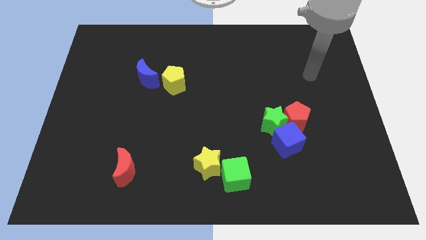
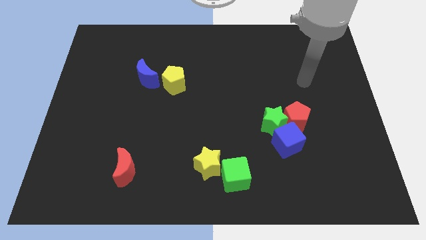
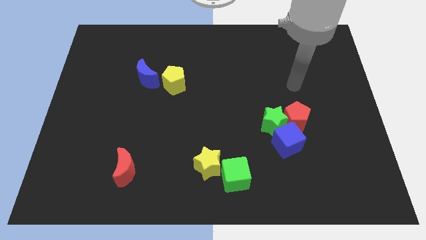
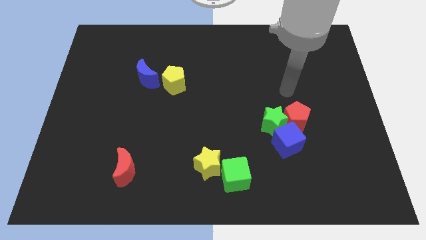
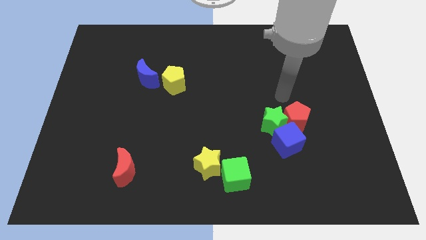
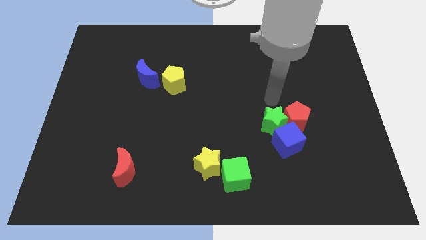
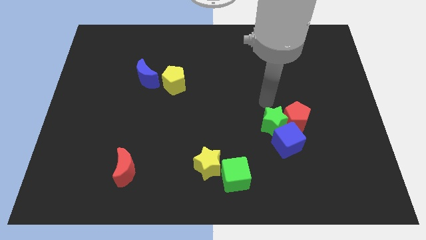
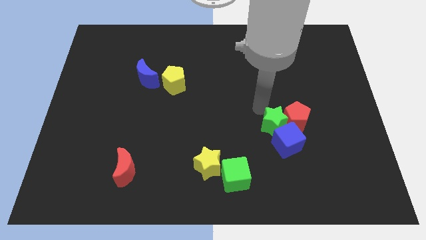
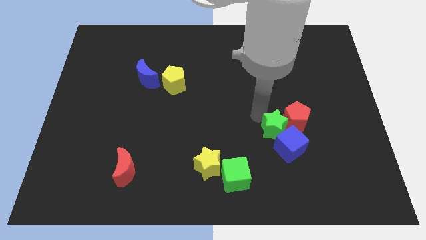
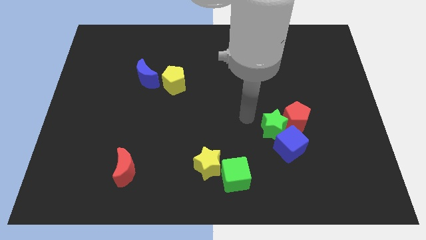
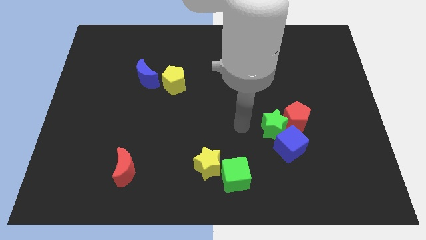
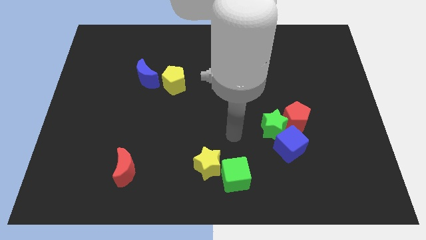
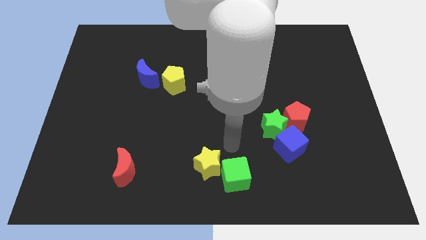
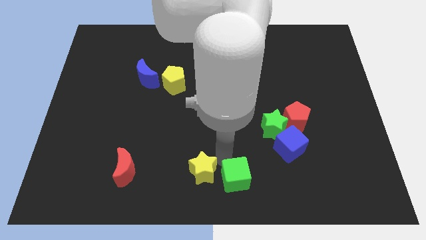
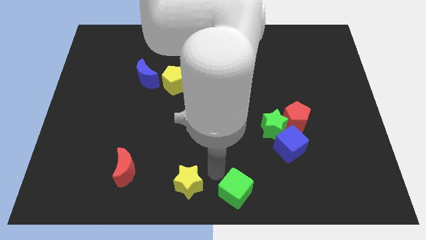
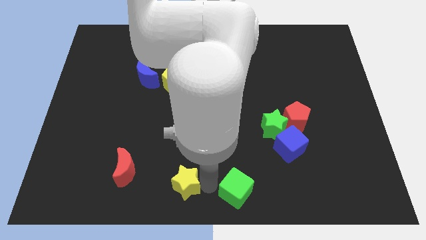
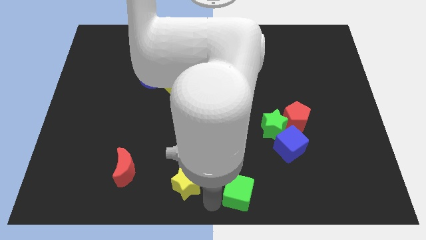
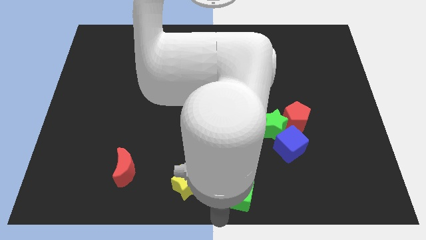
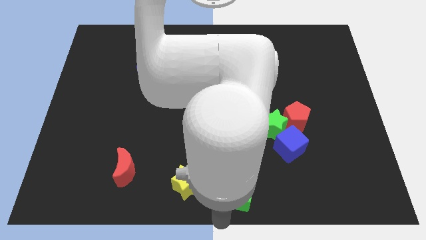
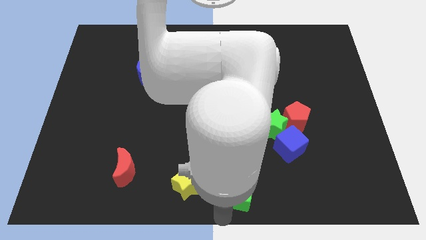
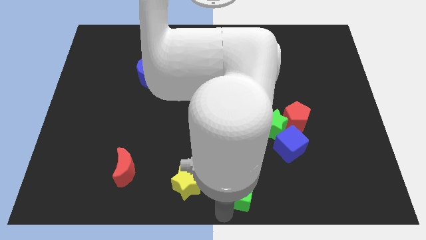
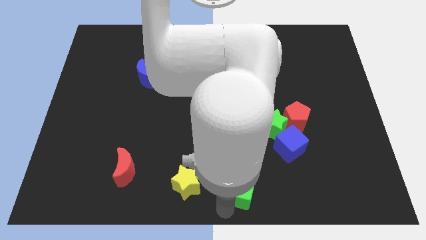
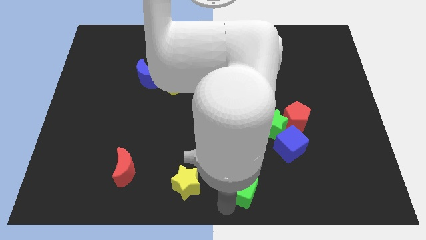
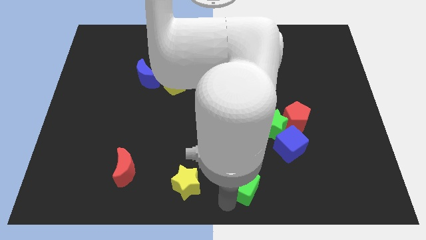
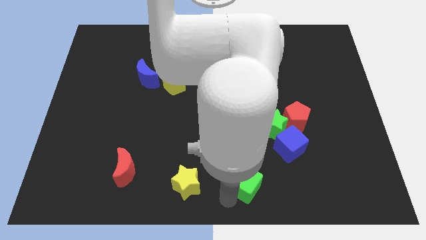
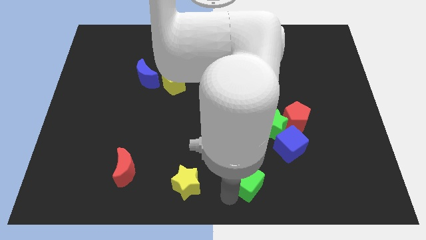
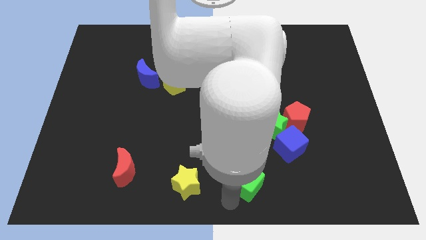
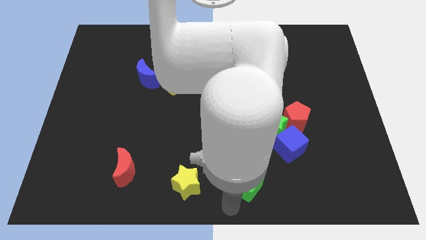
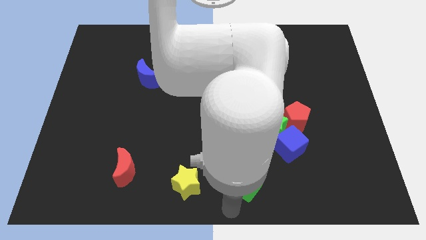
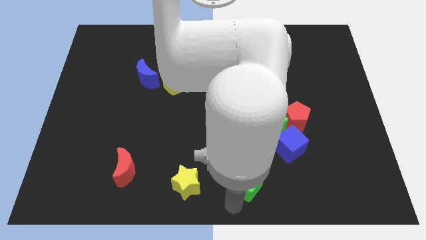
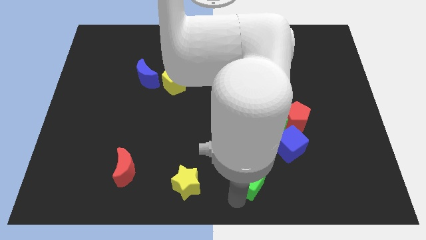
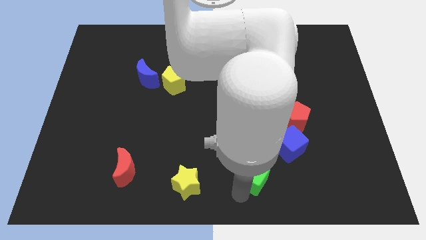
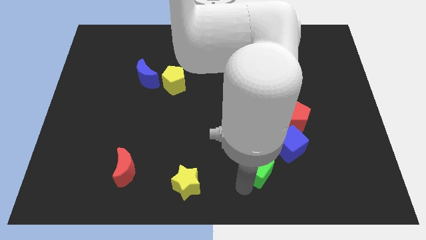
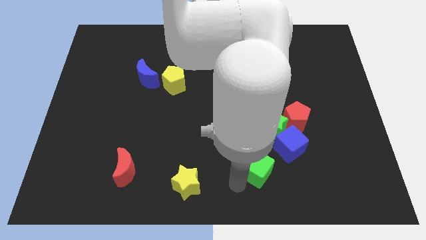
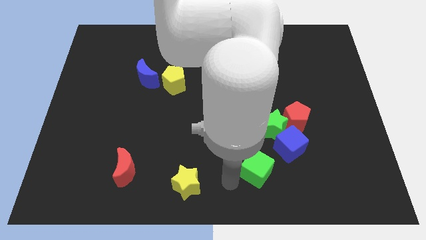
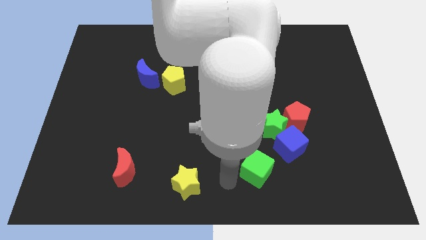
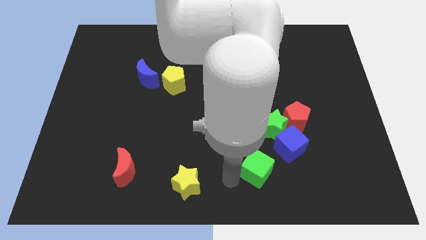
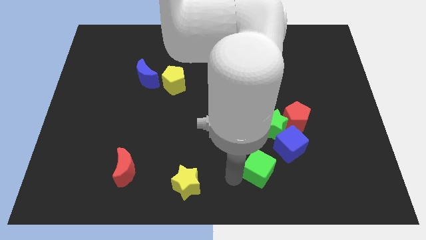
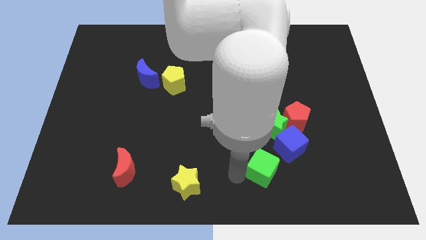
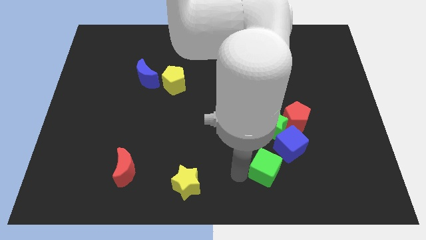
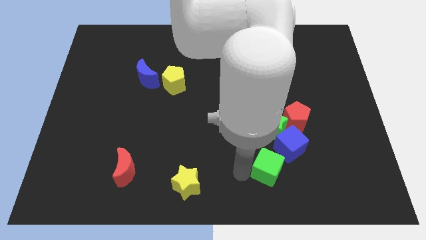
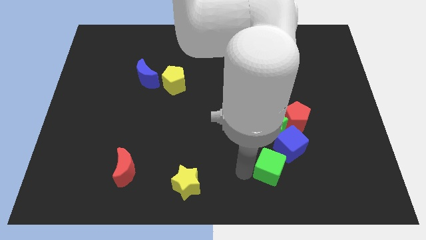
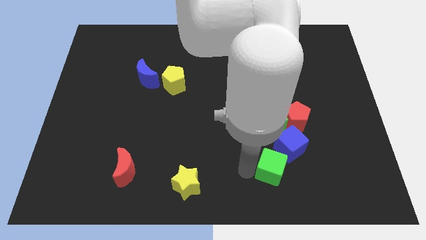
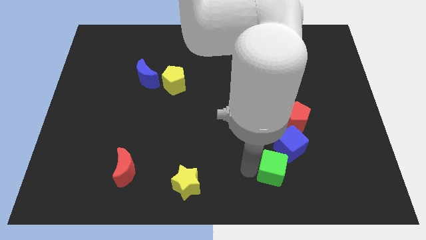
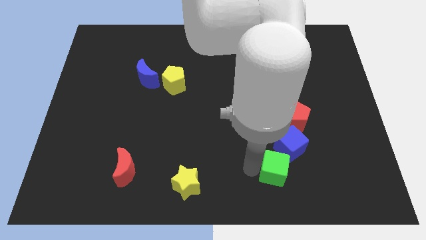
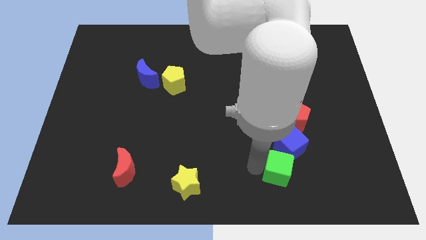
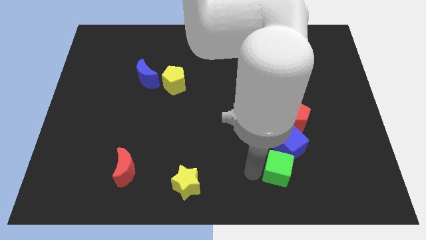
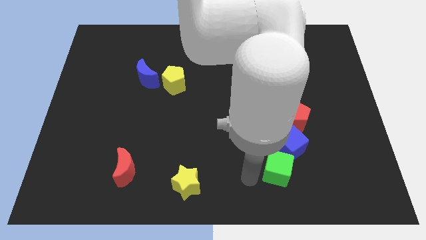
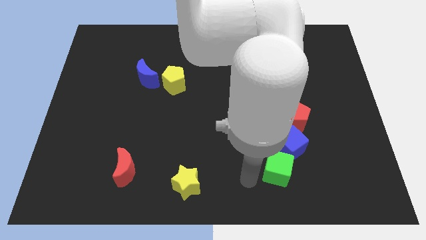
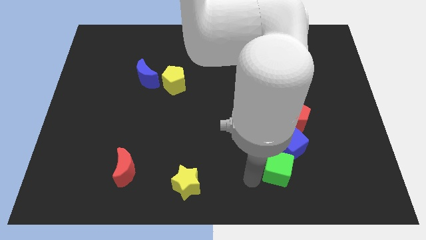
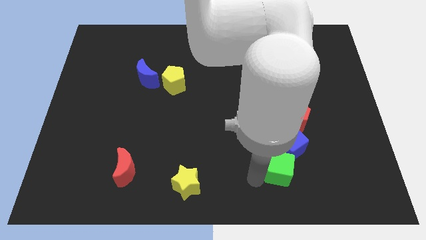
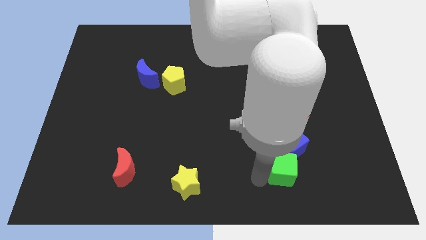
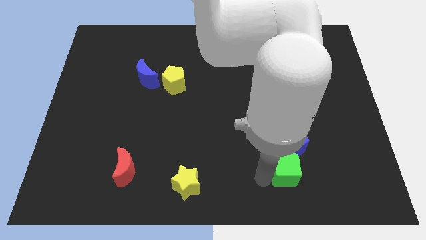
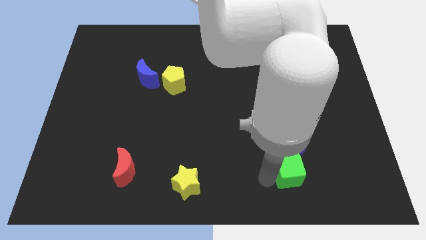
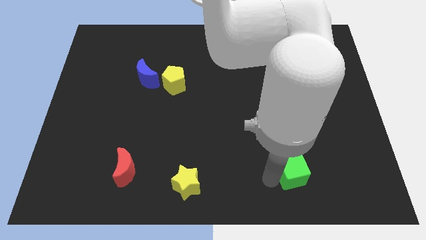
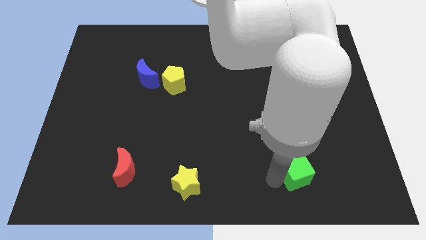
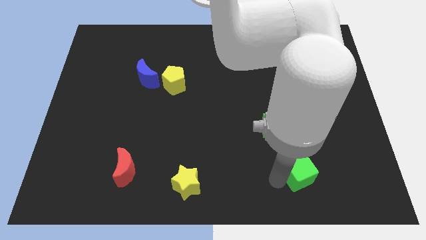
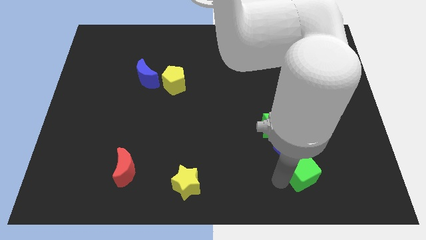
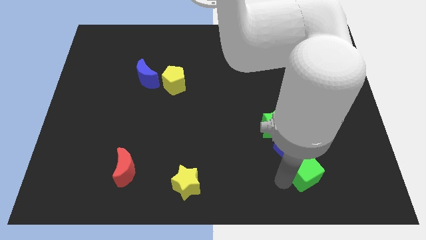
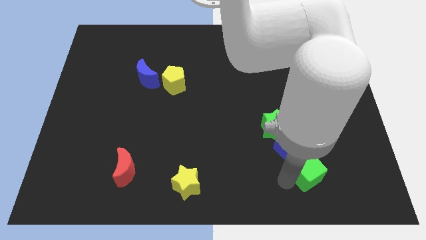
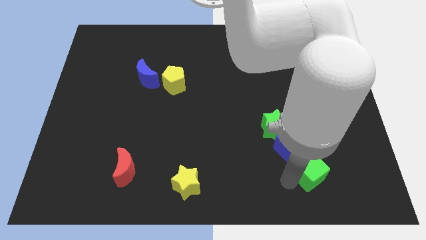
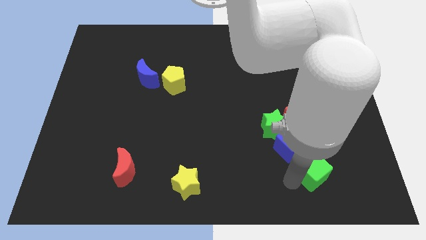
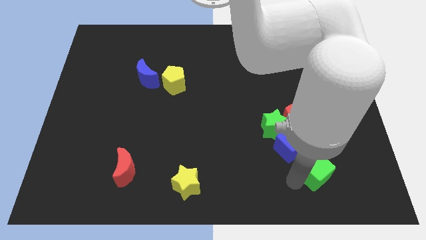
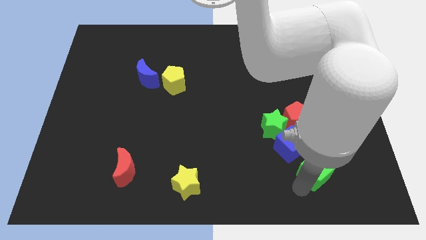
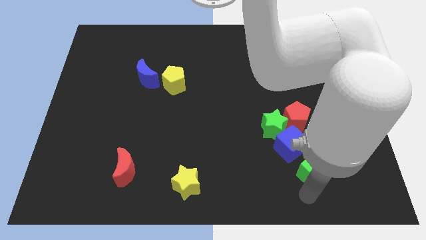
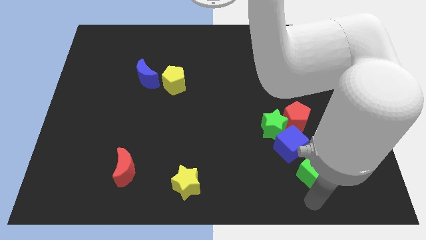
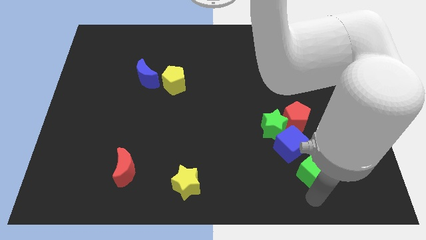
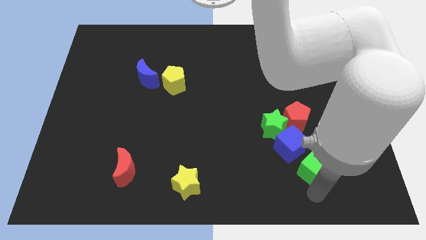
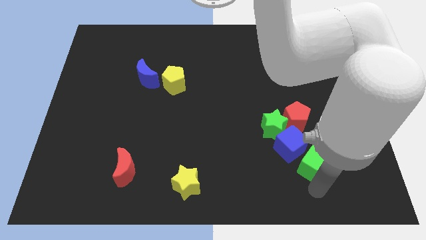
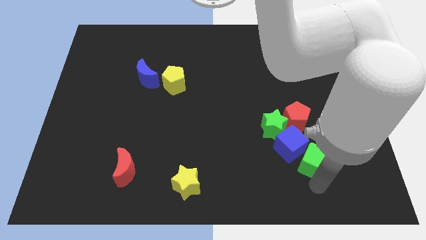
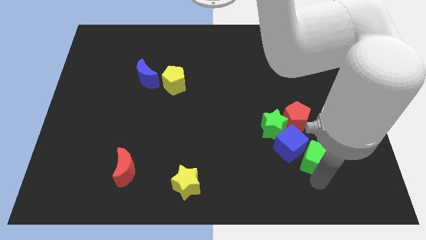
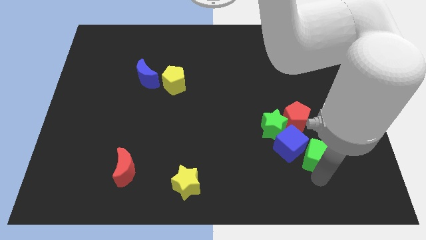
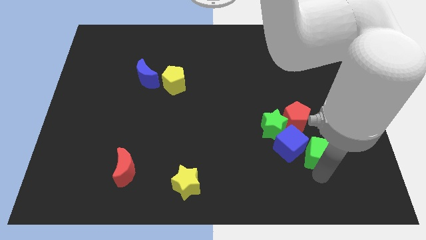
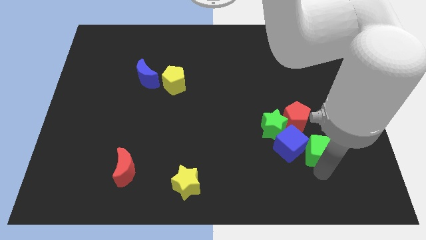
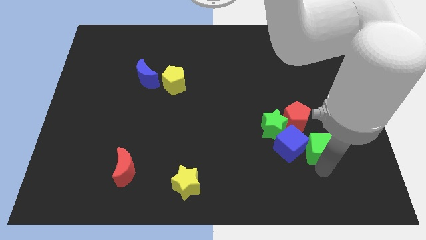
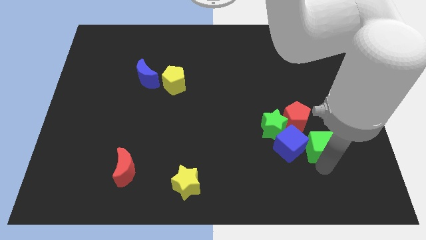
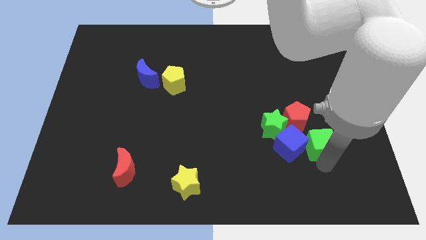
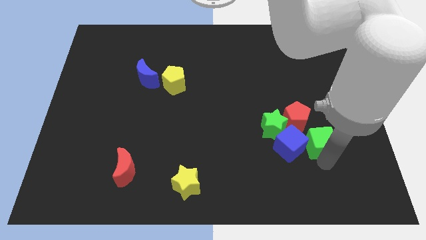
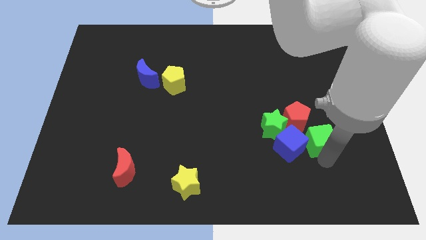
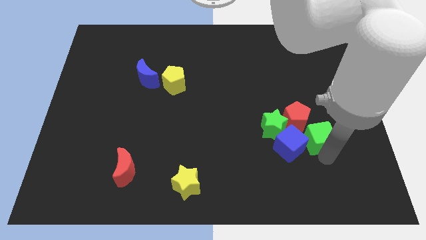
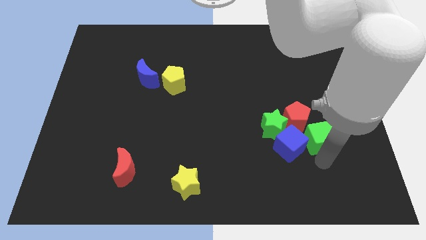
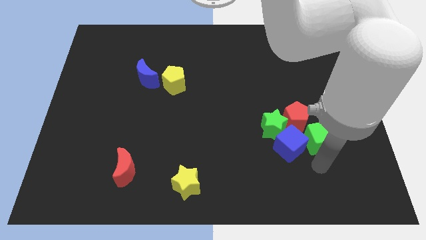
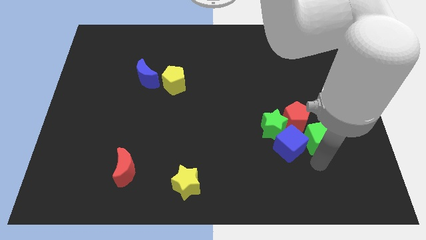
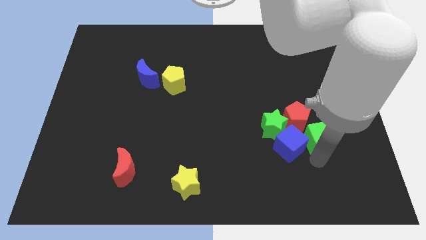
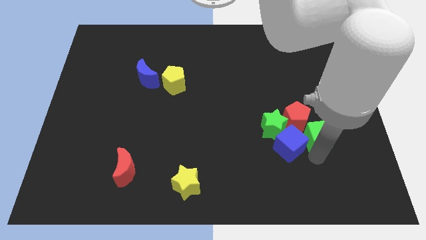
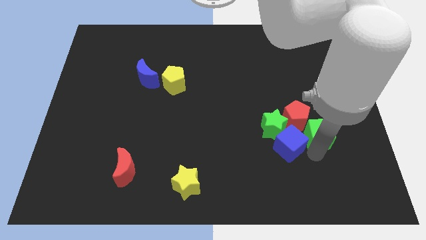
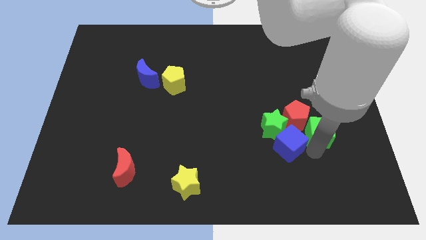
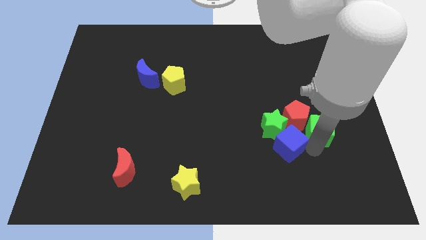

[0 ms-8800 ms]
move the green cube diagonally upwards and to the right
